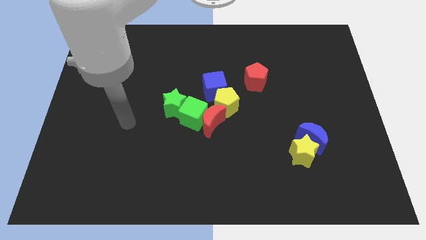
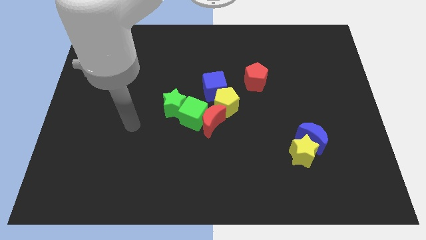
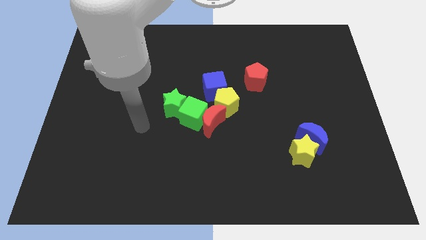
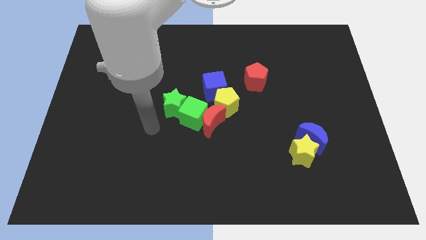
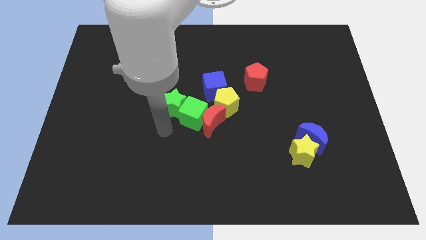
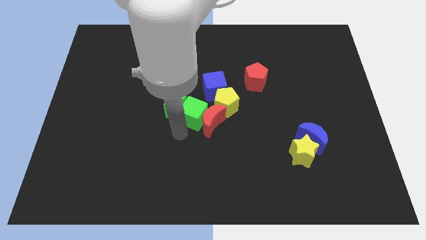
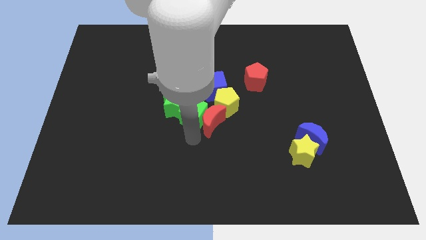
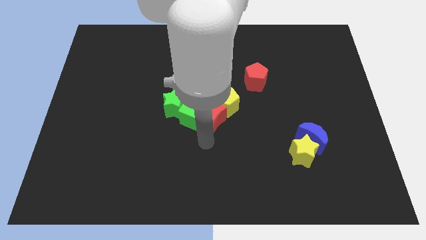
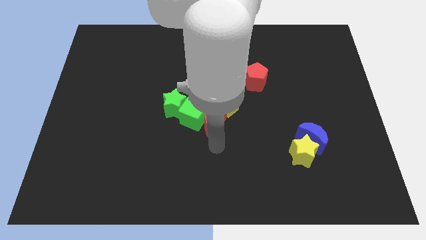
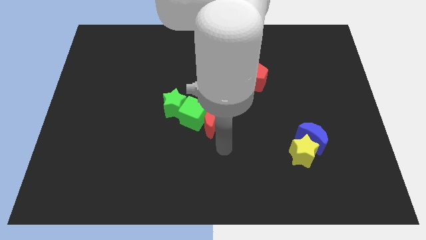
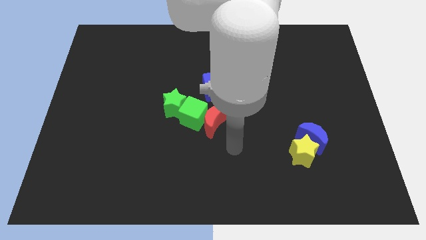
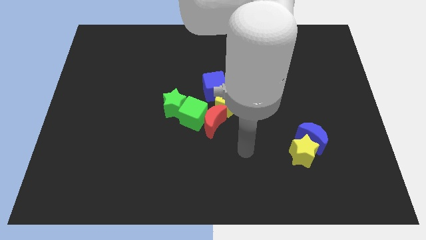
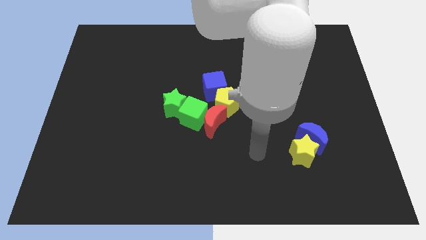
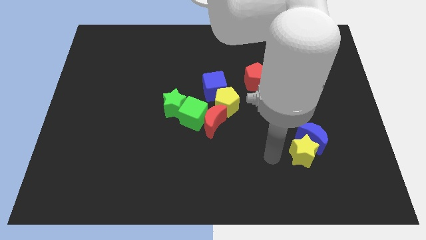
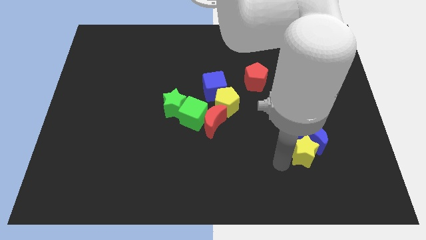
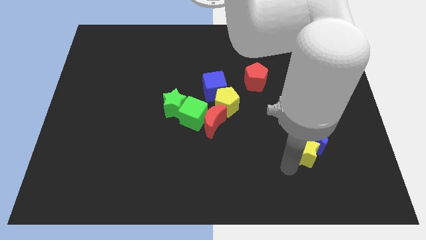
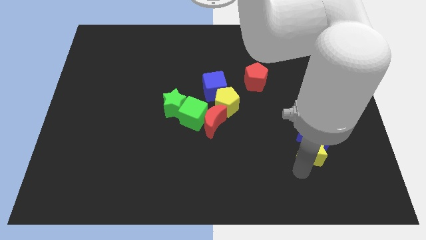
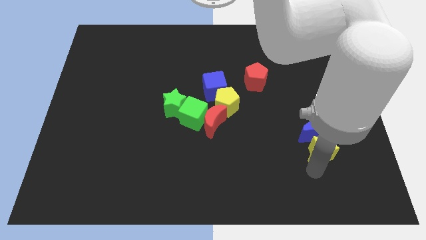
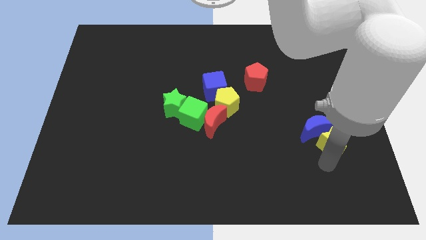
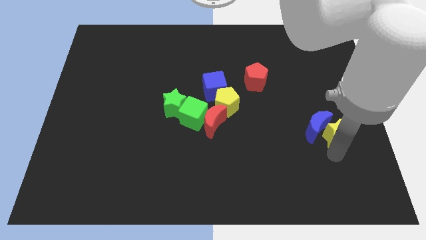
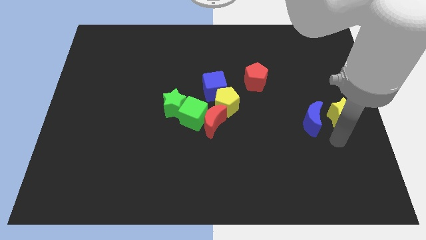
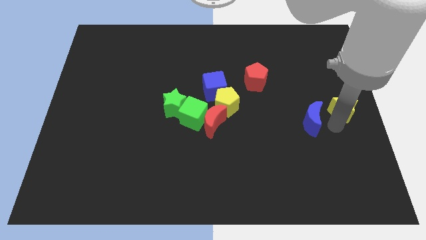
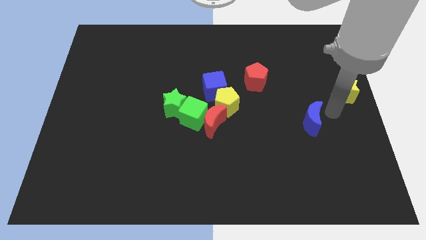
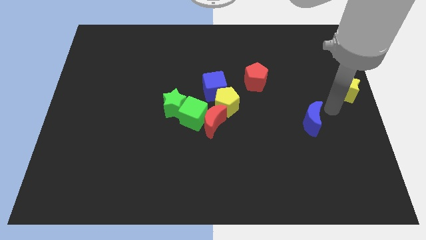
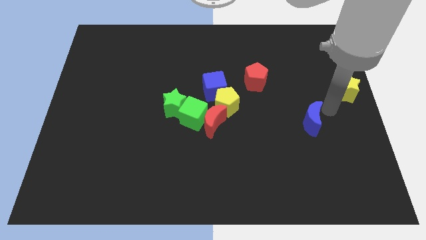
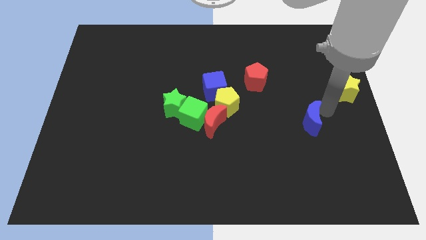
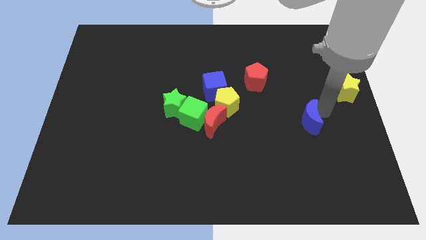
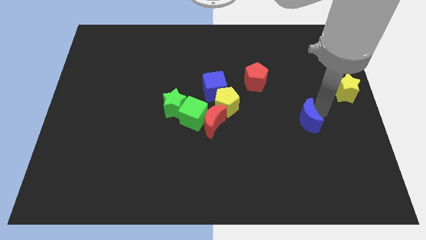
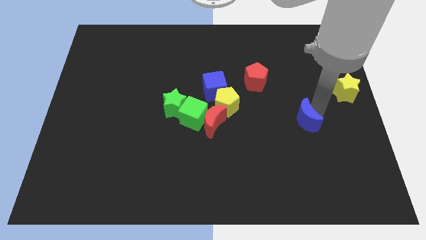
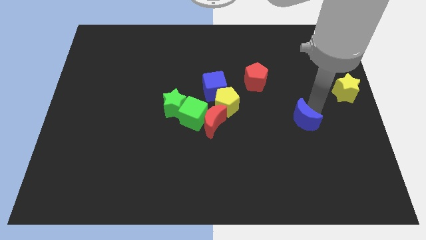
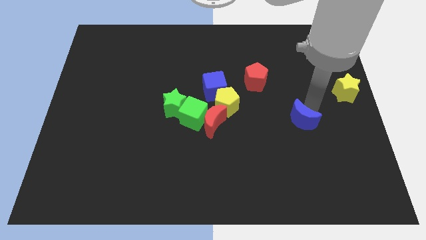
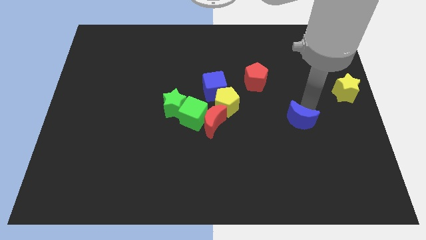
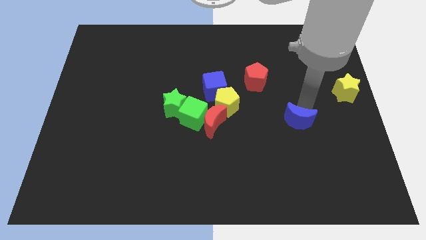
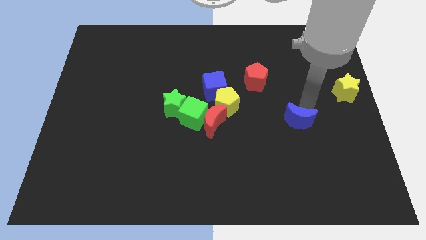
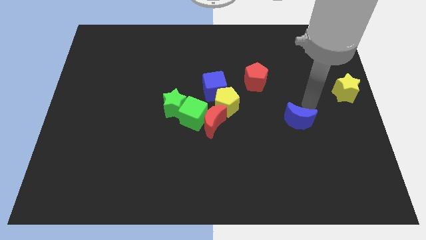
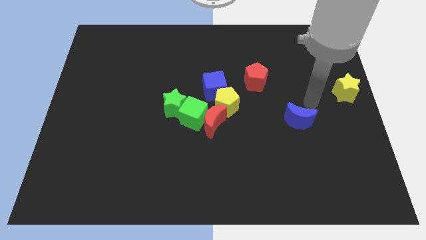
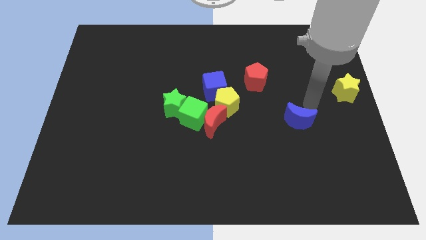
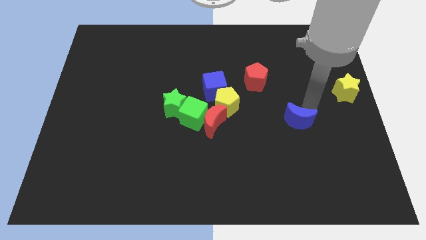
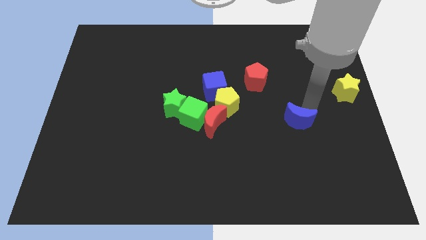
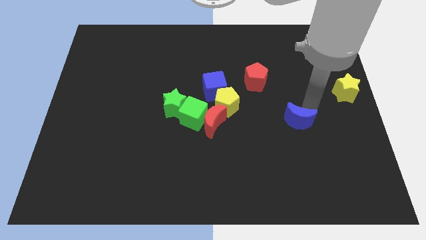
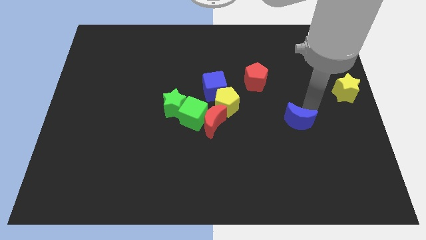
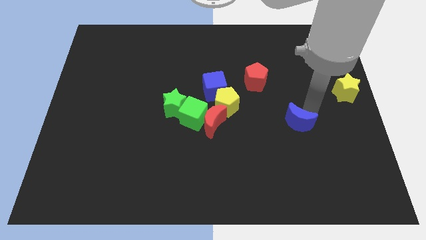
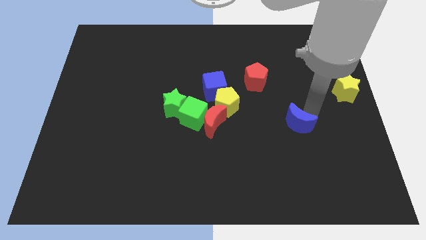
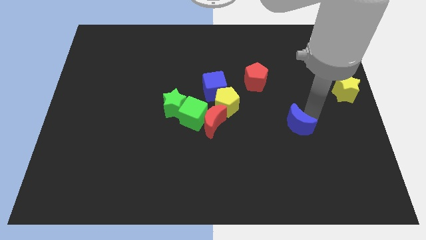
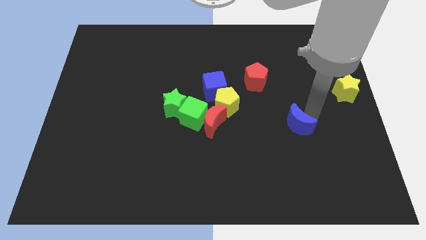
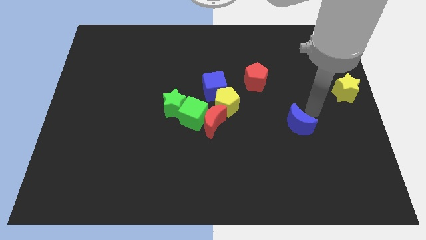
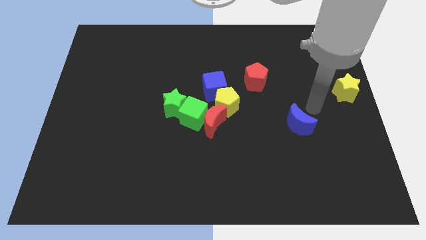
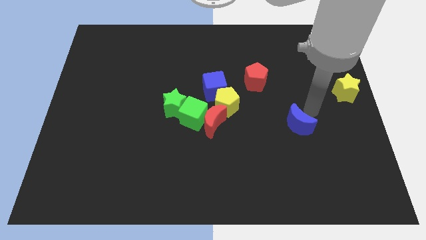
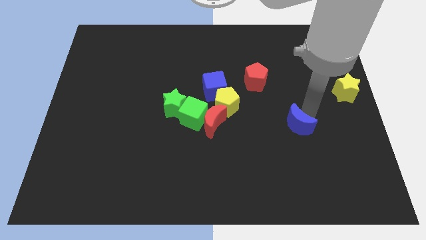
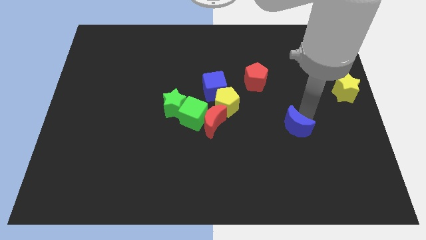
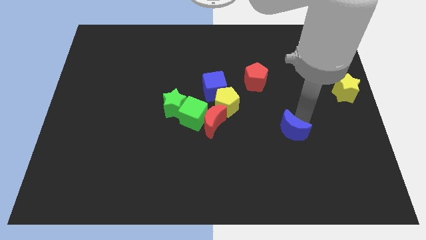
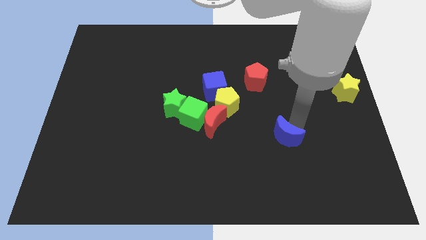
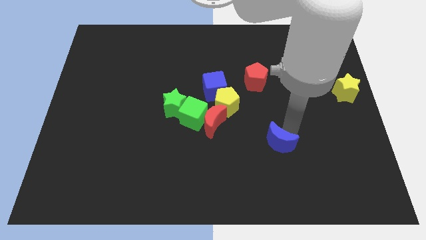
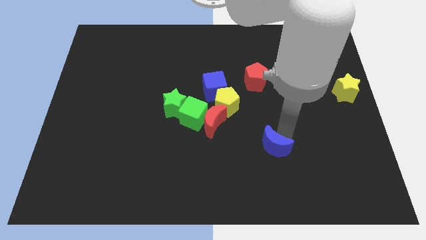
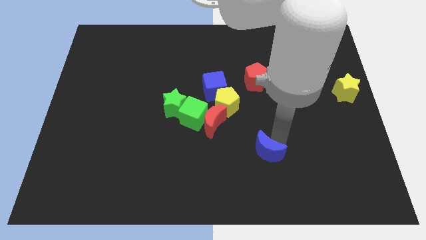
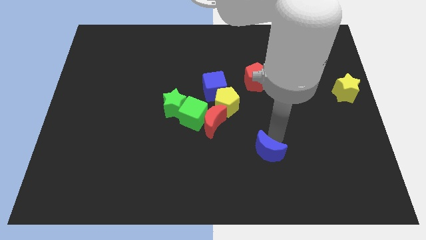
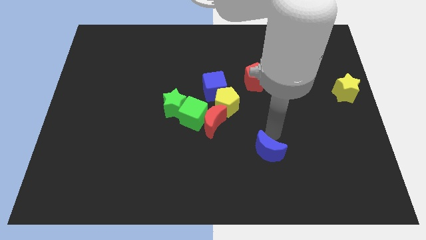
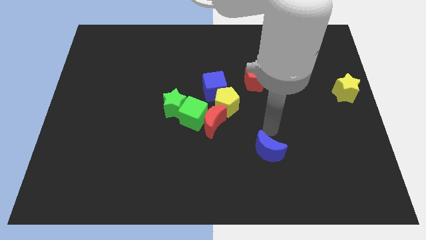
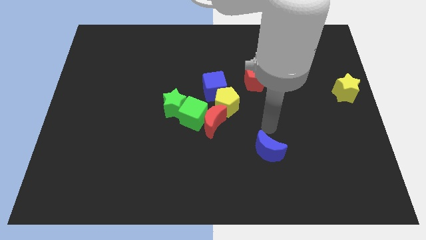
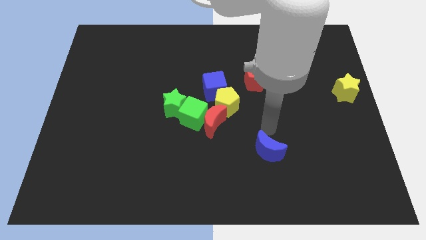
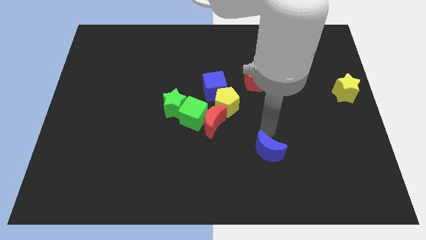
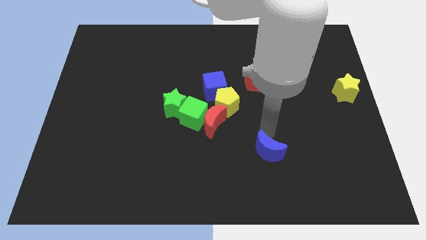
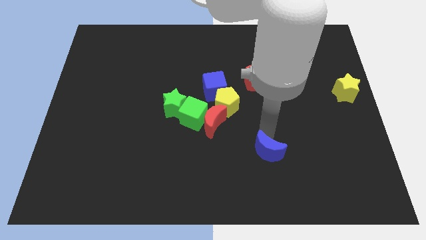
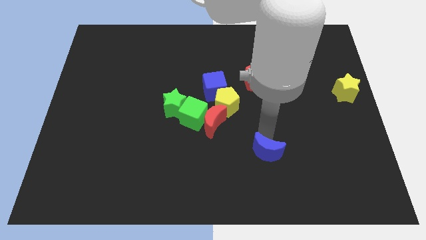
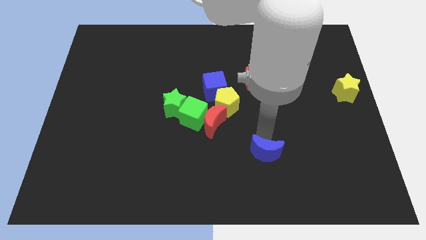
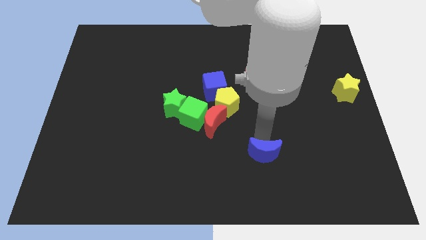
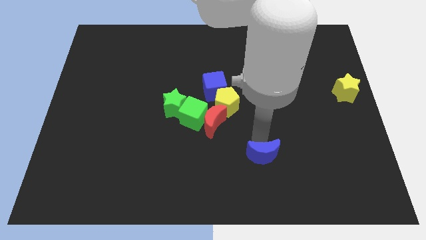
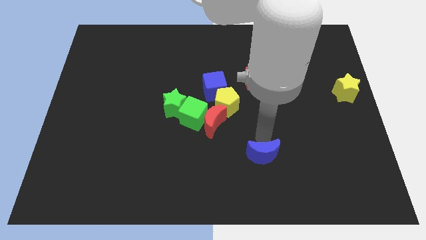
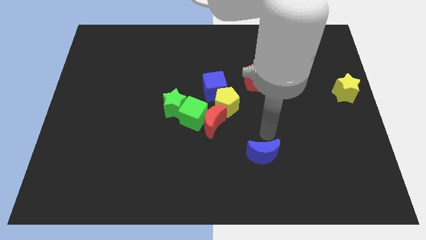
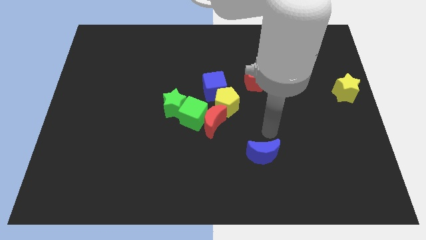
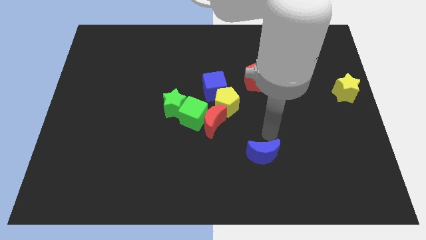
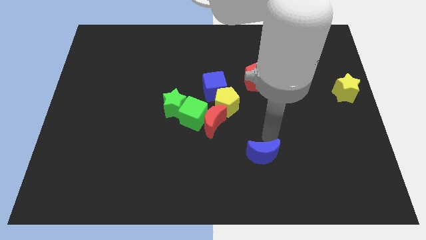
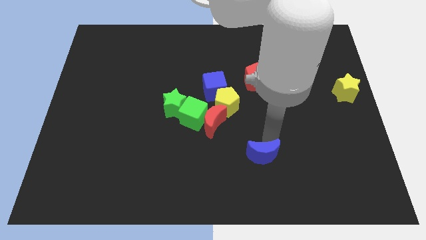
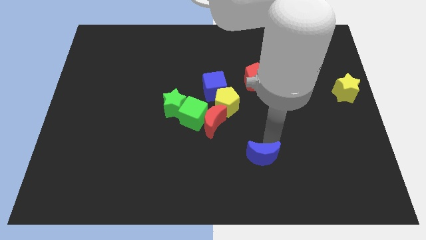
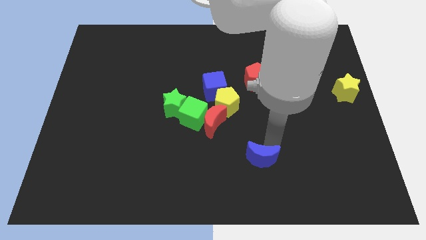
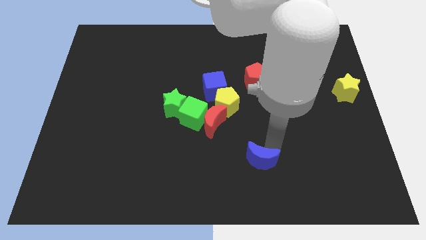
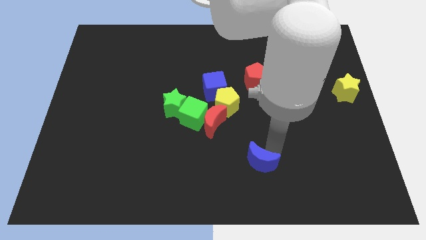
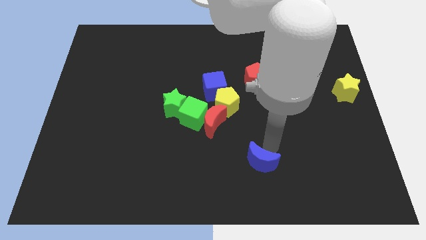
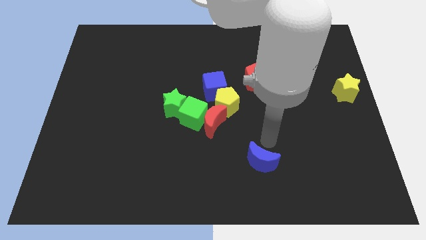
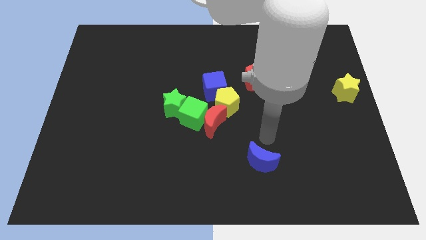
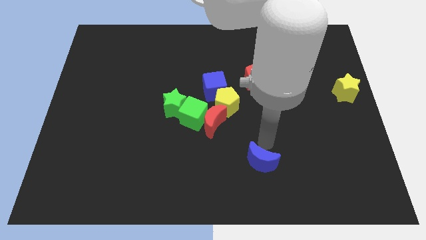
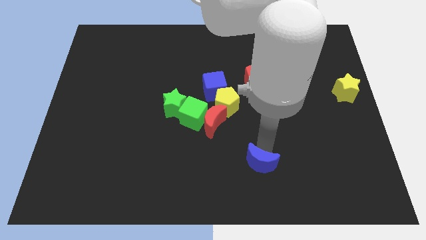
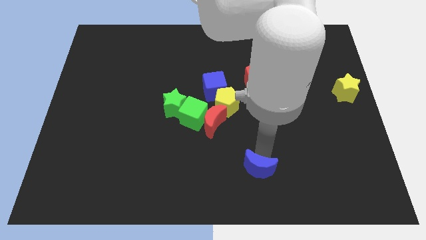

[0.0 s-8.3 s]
slide the blue moon to the bottom side
